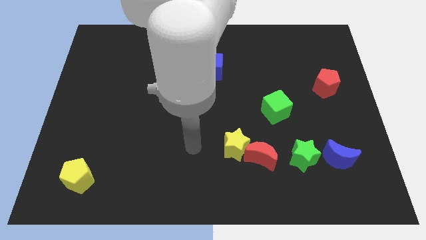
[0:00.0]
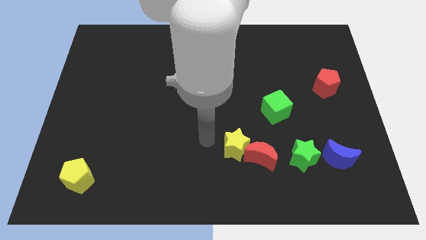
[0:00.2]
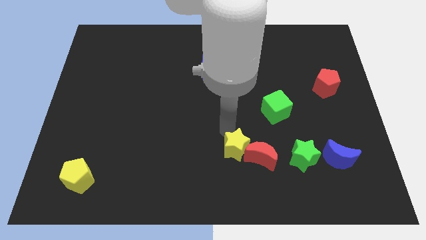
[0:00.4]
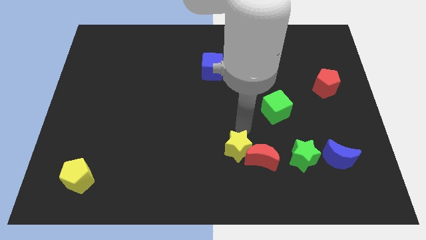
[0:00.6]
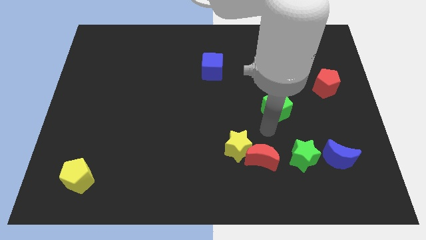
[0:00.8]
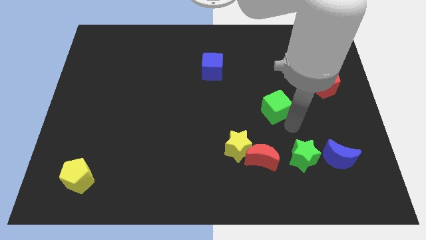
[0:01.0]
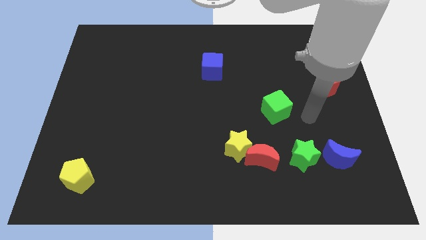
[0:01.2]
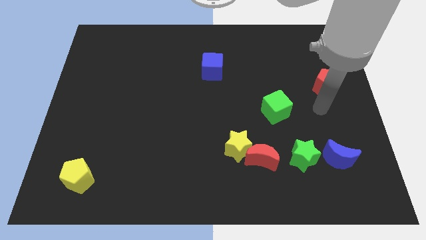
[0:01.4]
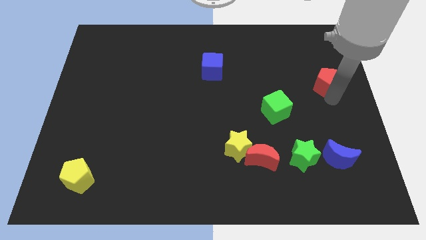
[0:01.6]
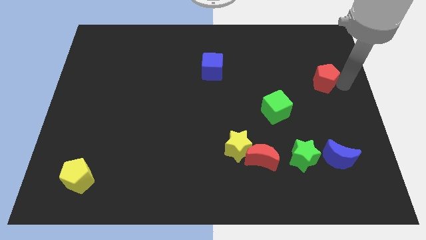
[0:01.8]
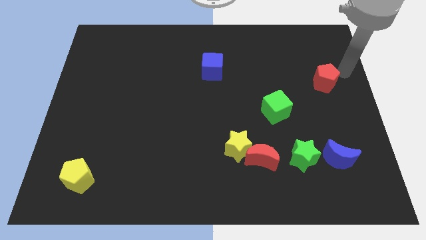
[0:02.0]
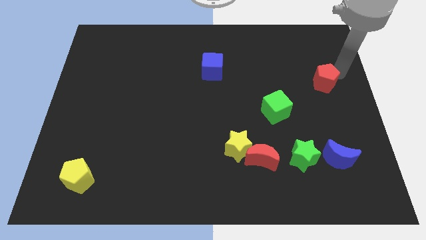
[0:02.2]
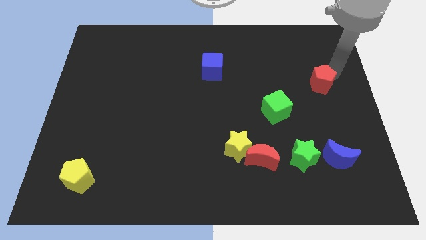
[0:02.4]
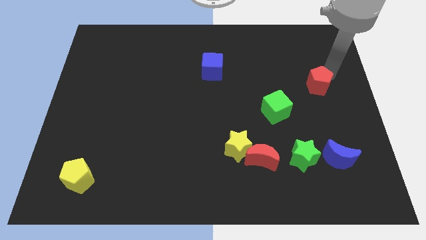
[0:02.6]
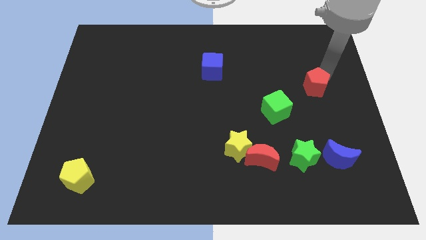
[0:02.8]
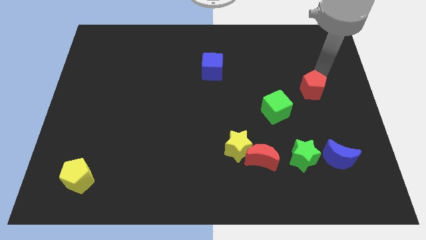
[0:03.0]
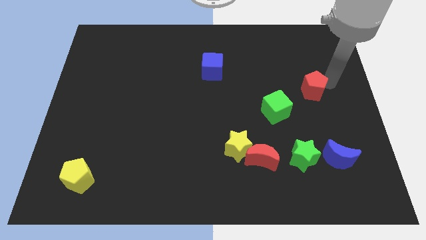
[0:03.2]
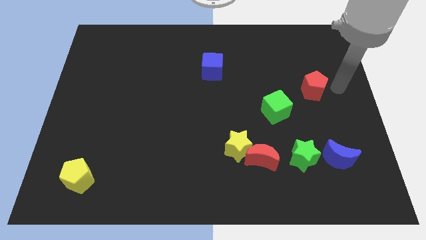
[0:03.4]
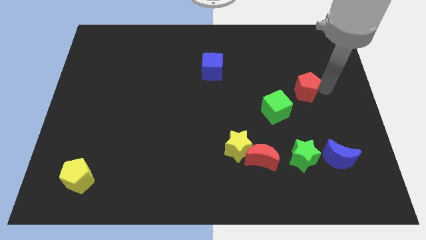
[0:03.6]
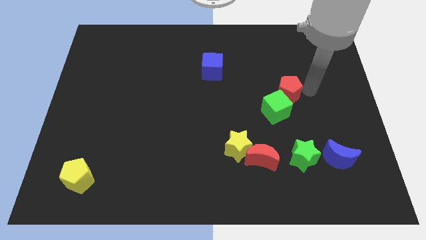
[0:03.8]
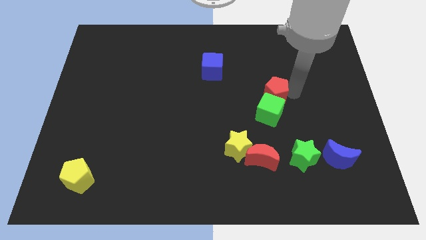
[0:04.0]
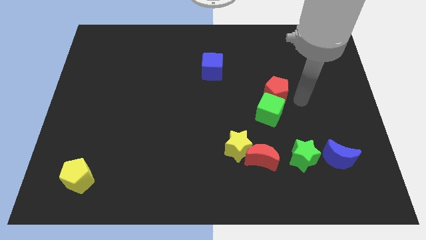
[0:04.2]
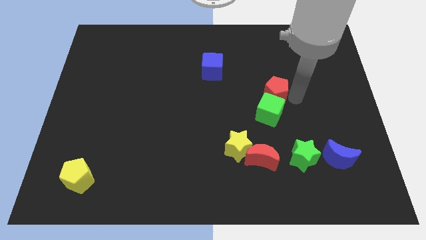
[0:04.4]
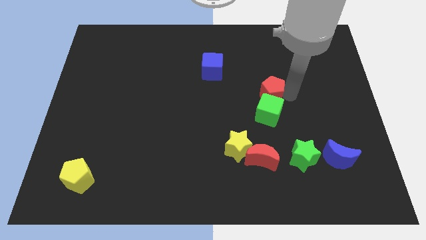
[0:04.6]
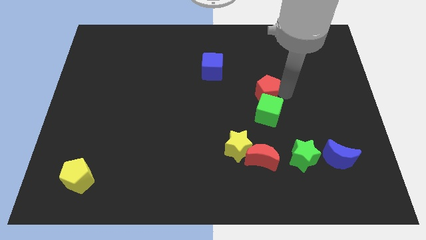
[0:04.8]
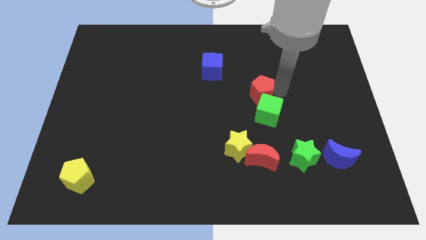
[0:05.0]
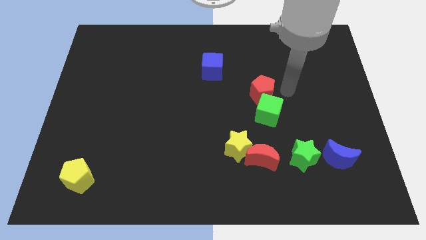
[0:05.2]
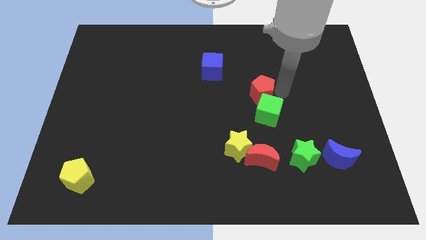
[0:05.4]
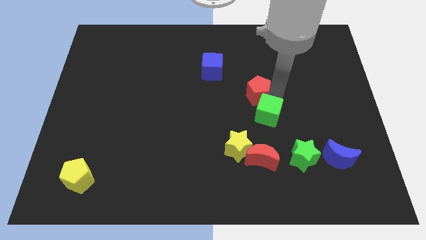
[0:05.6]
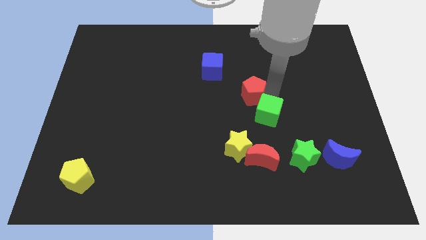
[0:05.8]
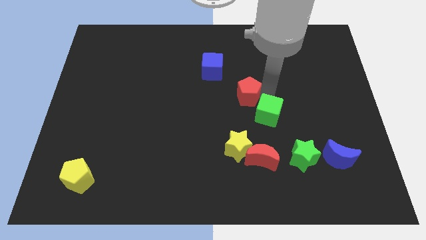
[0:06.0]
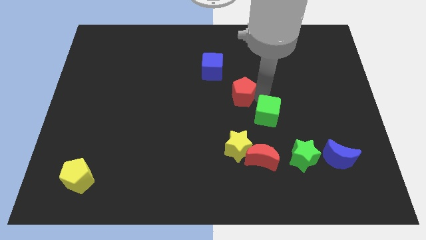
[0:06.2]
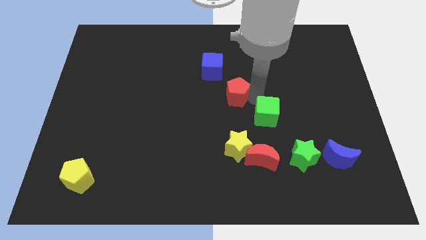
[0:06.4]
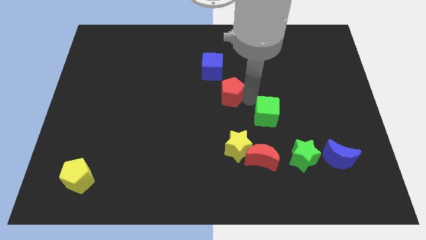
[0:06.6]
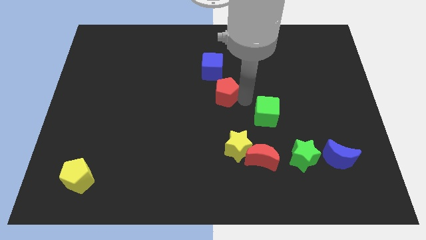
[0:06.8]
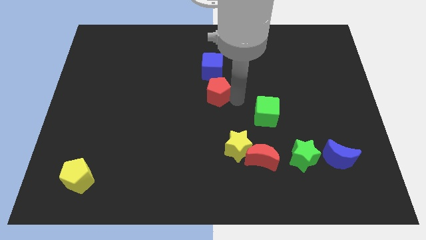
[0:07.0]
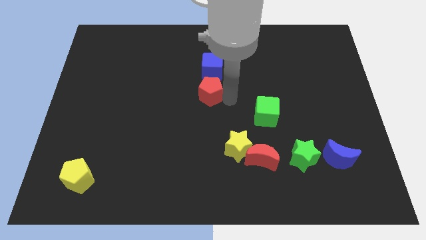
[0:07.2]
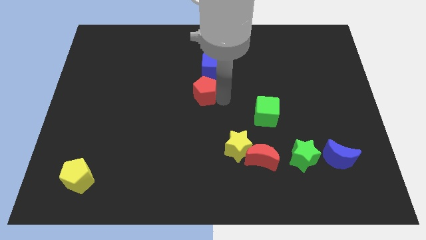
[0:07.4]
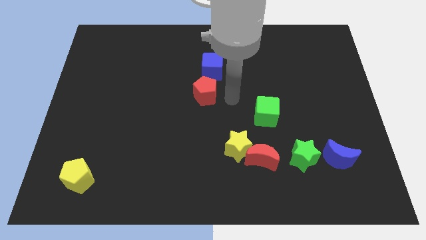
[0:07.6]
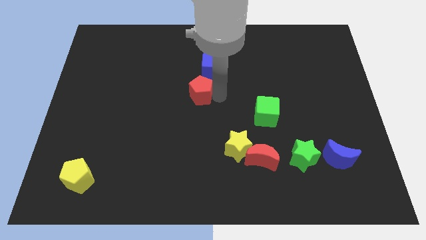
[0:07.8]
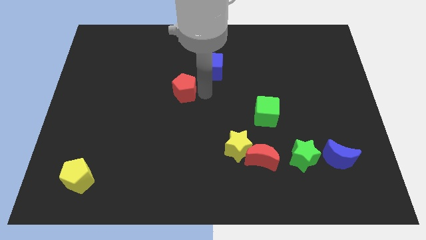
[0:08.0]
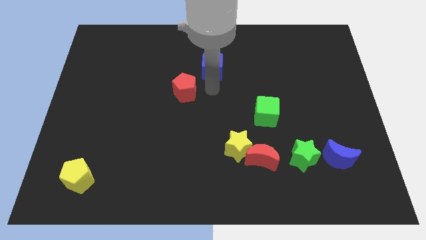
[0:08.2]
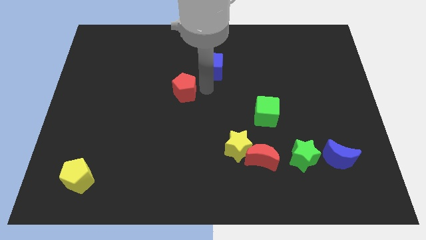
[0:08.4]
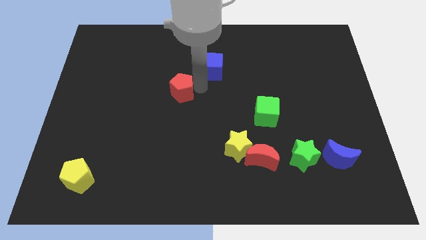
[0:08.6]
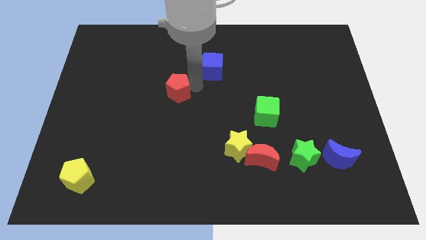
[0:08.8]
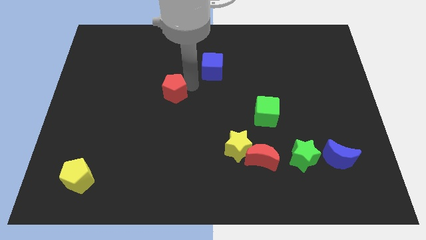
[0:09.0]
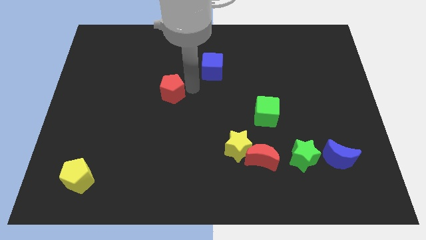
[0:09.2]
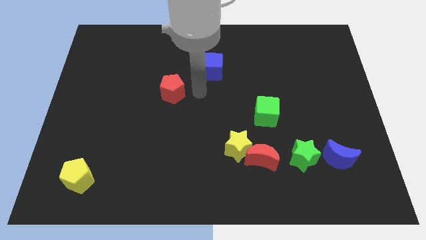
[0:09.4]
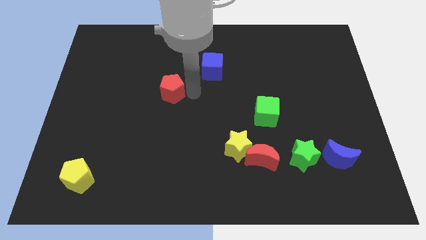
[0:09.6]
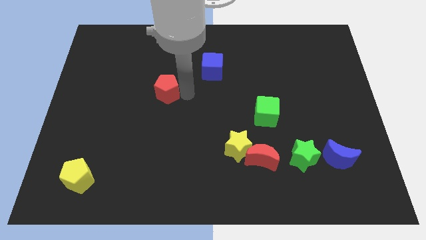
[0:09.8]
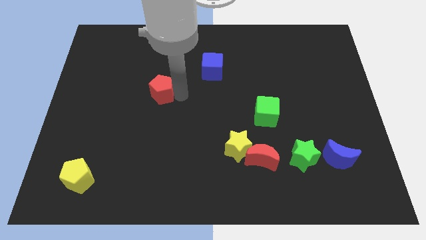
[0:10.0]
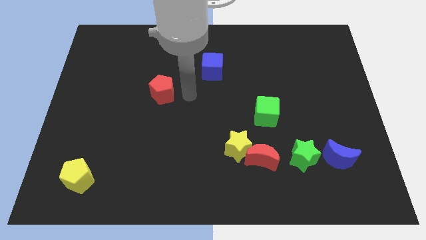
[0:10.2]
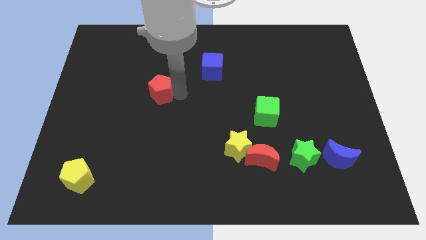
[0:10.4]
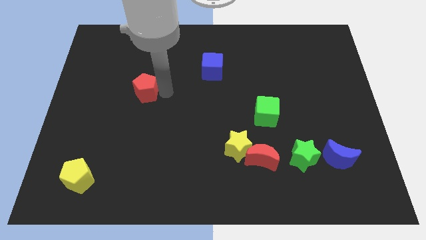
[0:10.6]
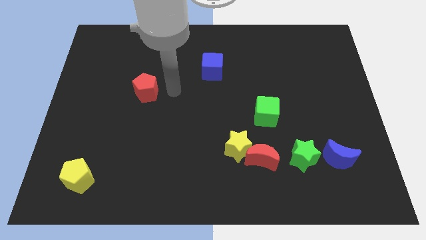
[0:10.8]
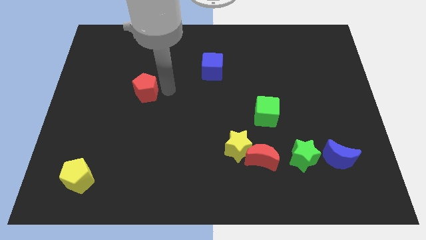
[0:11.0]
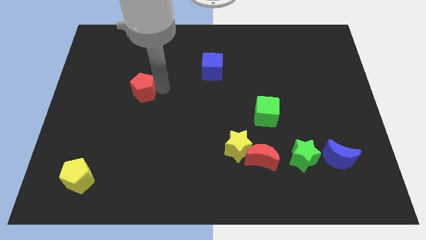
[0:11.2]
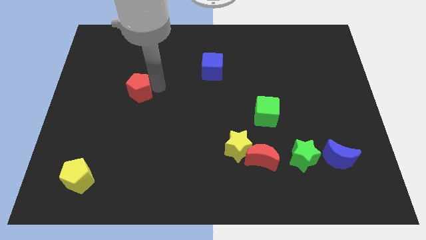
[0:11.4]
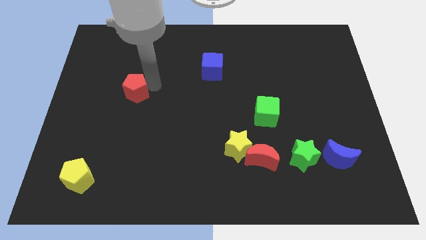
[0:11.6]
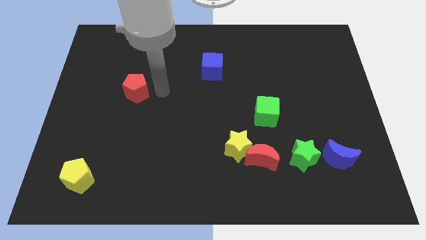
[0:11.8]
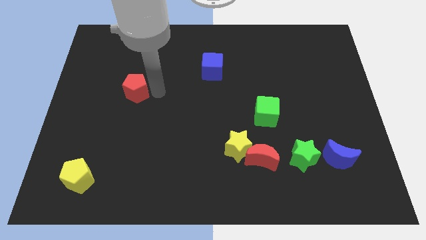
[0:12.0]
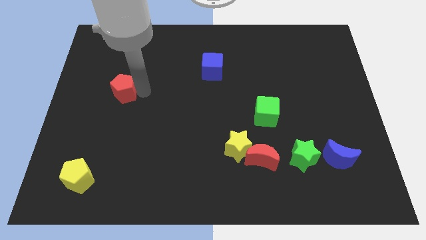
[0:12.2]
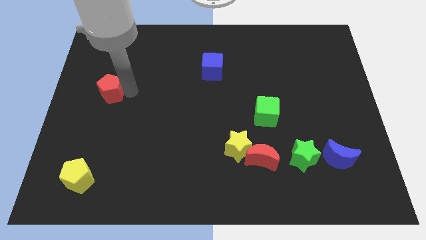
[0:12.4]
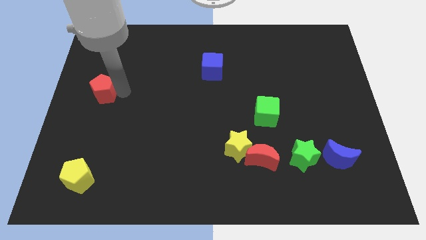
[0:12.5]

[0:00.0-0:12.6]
slide the red pentagon to the left side
